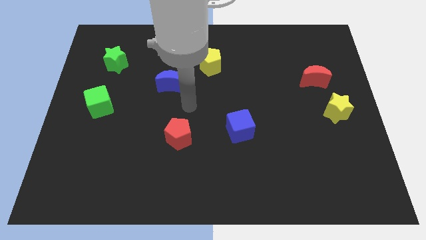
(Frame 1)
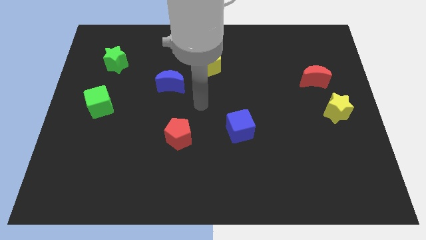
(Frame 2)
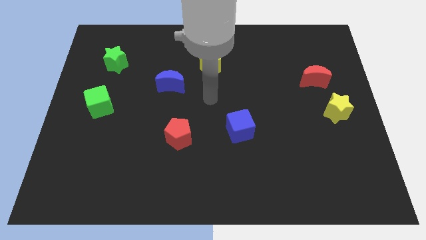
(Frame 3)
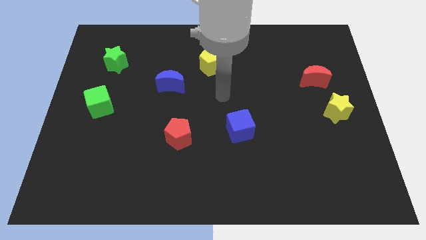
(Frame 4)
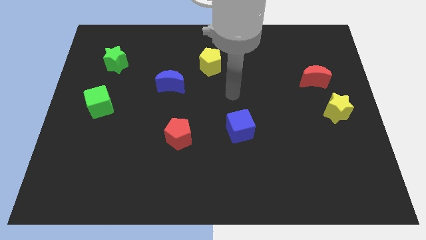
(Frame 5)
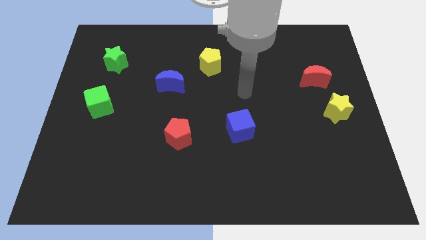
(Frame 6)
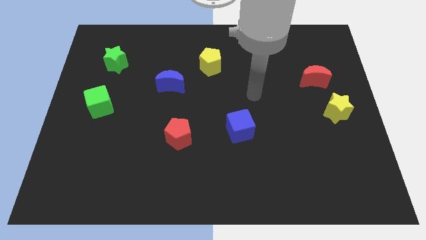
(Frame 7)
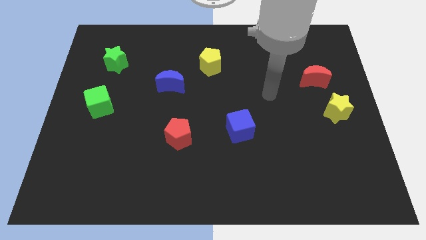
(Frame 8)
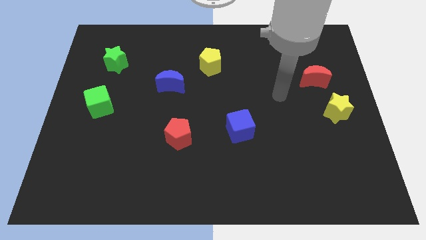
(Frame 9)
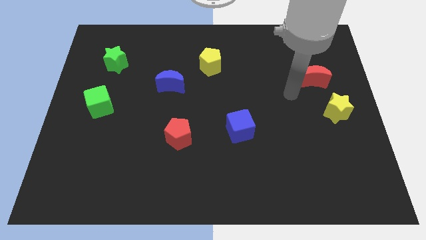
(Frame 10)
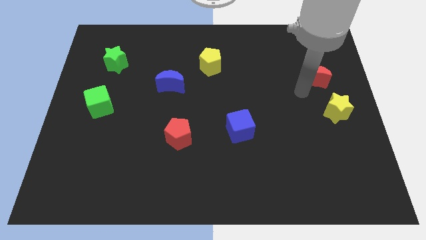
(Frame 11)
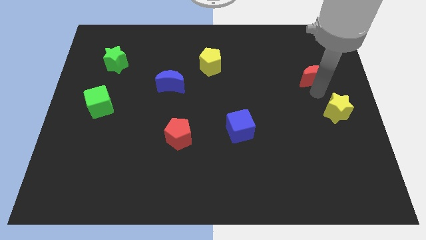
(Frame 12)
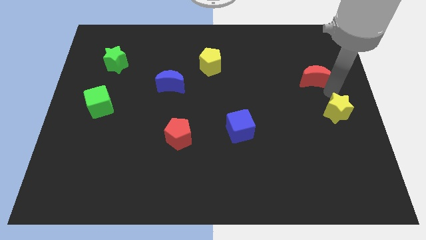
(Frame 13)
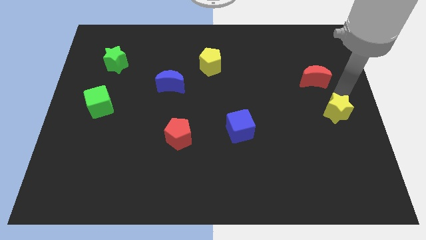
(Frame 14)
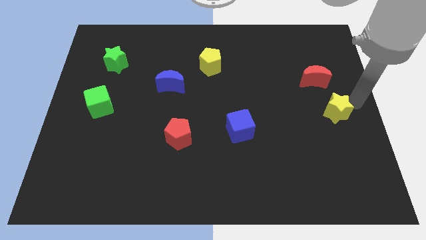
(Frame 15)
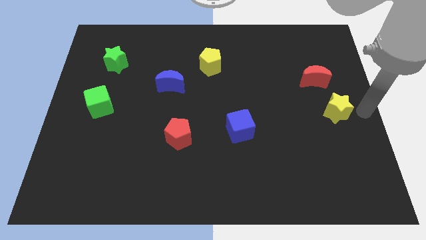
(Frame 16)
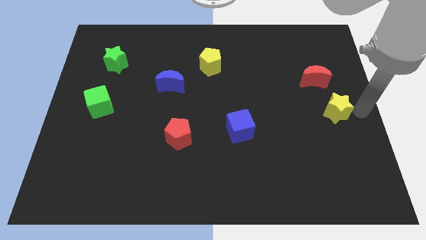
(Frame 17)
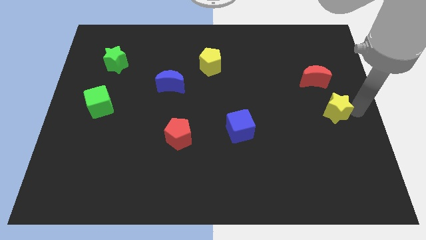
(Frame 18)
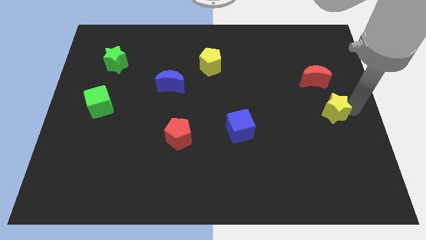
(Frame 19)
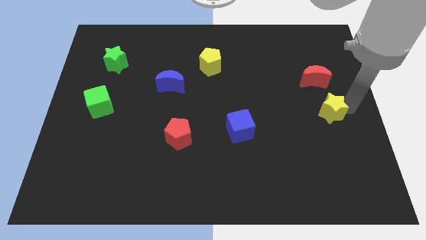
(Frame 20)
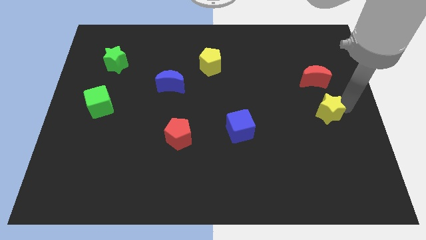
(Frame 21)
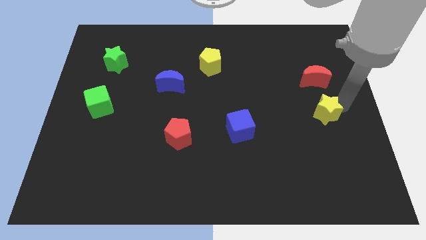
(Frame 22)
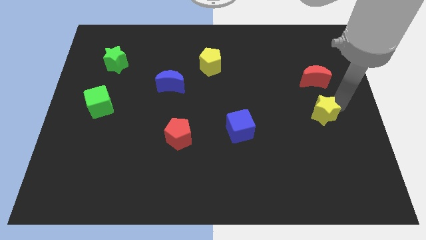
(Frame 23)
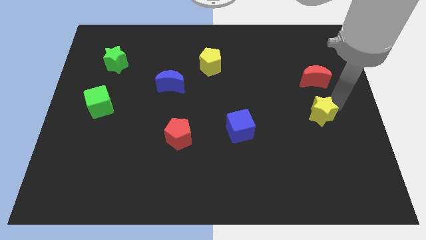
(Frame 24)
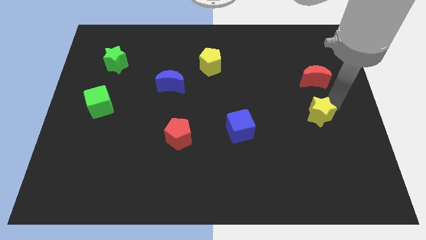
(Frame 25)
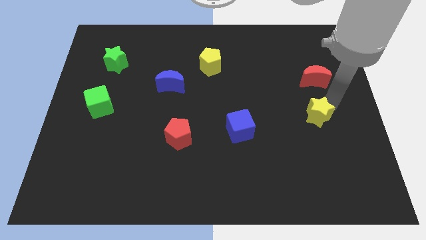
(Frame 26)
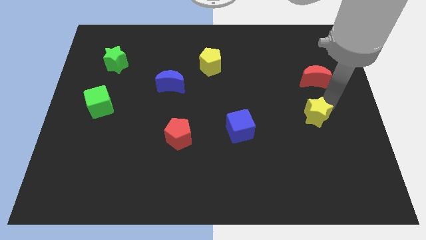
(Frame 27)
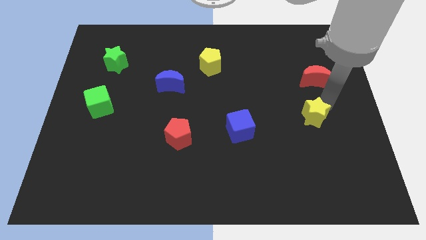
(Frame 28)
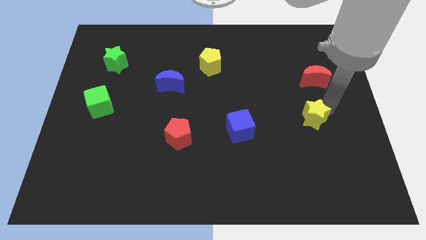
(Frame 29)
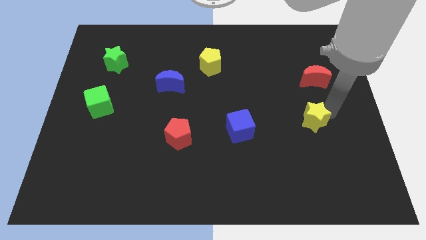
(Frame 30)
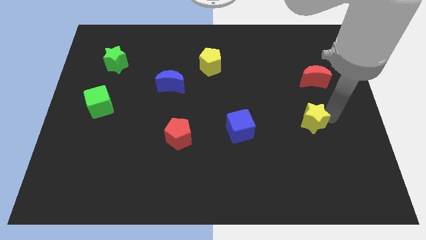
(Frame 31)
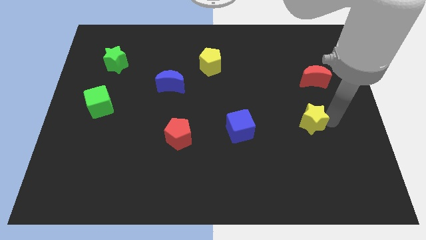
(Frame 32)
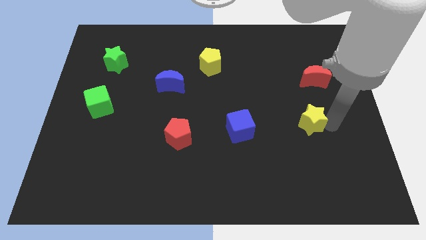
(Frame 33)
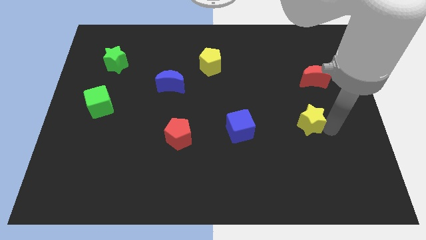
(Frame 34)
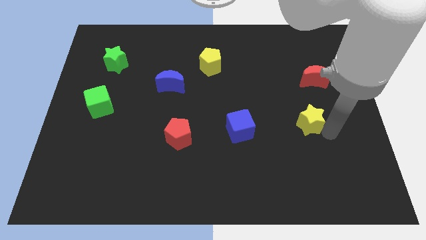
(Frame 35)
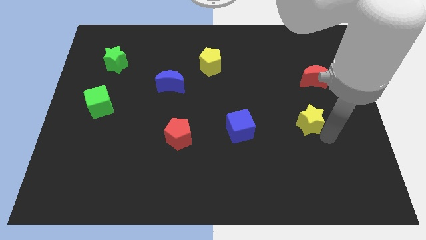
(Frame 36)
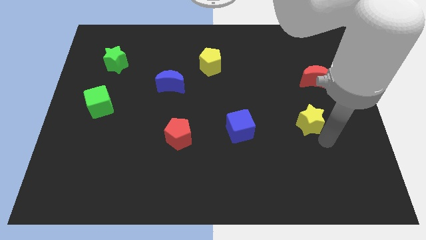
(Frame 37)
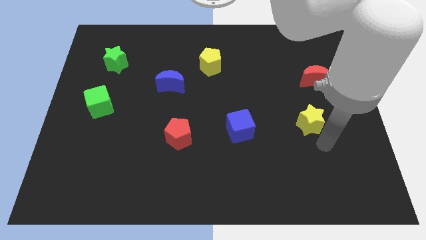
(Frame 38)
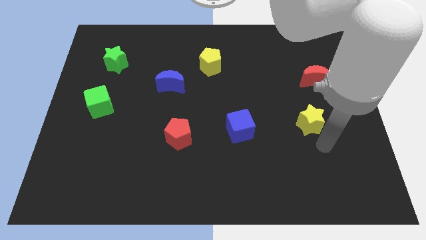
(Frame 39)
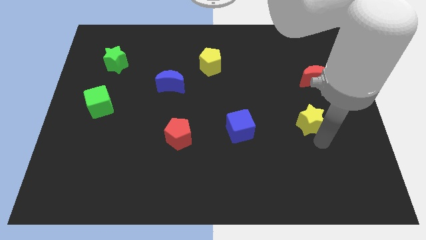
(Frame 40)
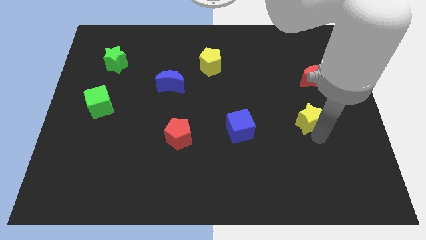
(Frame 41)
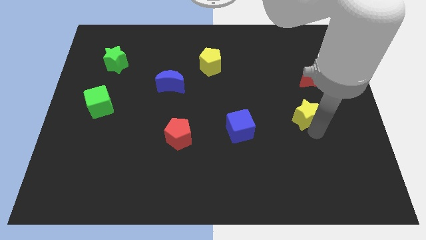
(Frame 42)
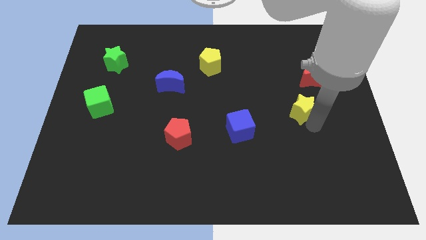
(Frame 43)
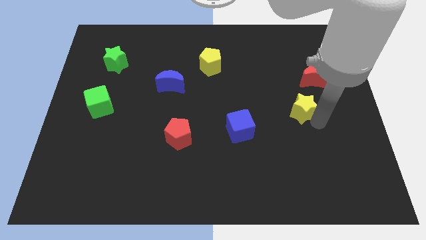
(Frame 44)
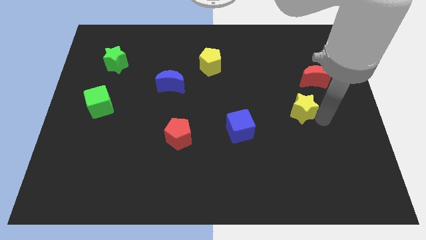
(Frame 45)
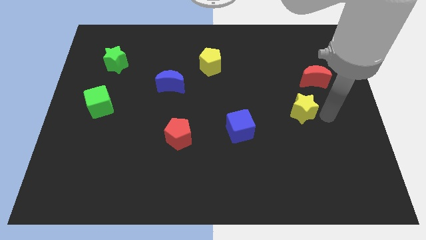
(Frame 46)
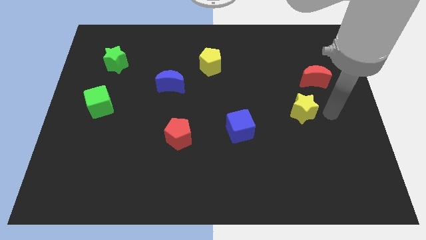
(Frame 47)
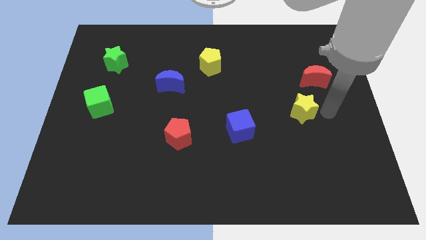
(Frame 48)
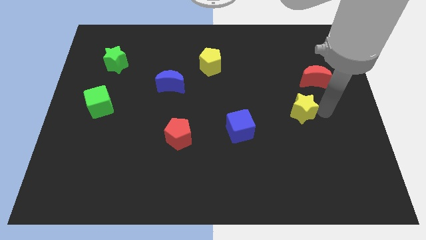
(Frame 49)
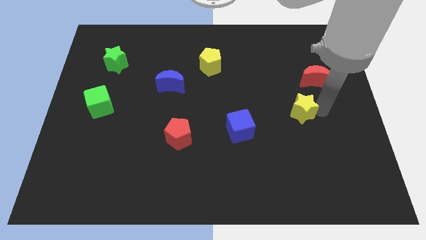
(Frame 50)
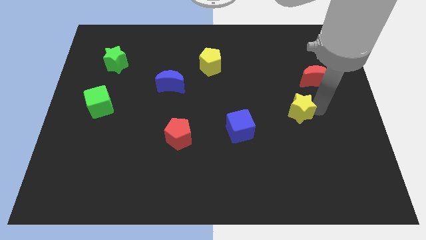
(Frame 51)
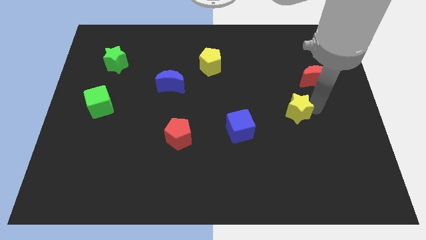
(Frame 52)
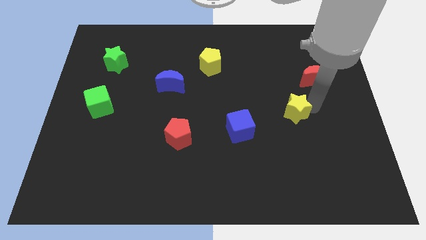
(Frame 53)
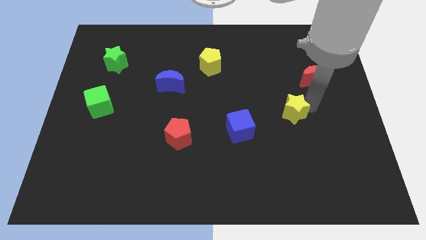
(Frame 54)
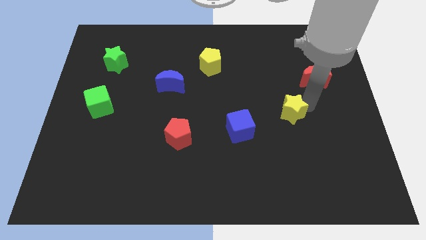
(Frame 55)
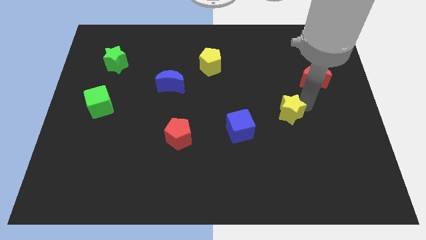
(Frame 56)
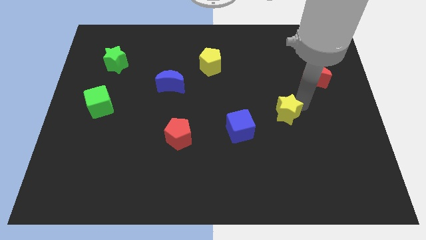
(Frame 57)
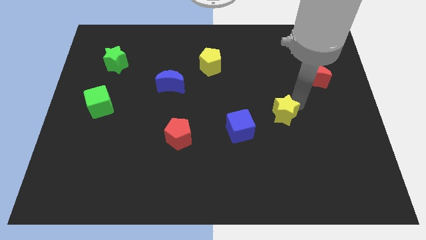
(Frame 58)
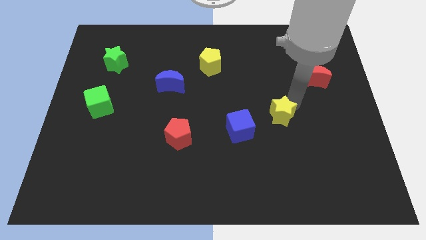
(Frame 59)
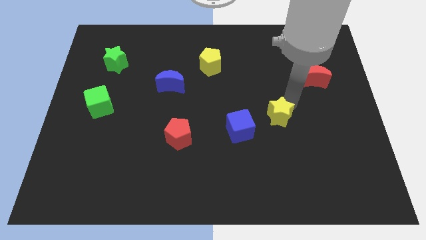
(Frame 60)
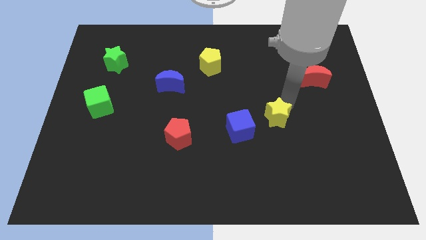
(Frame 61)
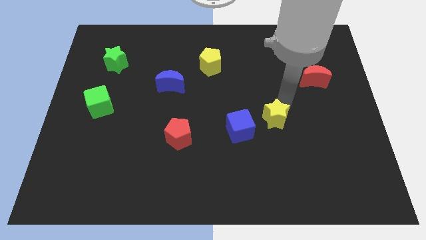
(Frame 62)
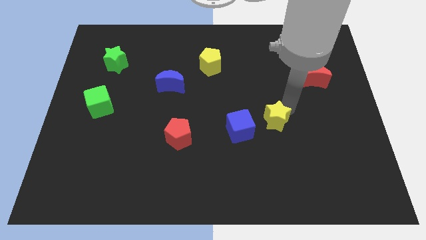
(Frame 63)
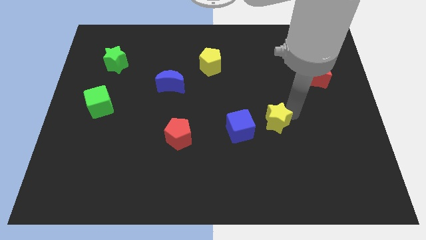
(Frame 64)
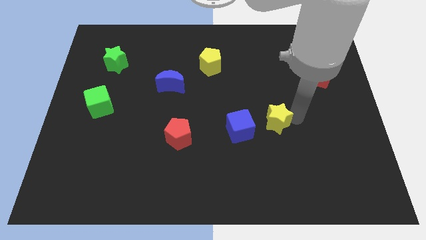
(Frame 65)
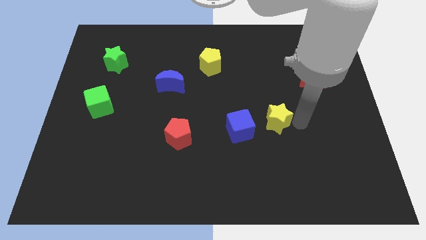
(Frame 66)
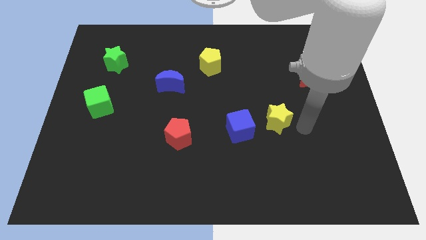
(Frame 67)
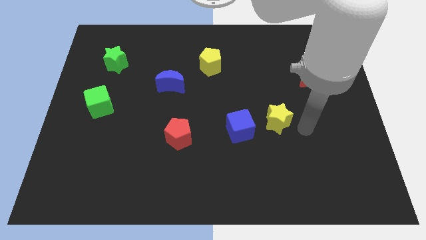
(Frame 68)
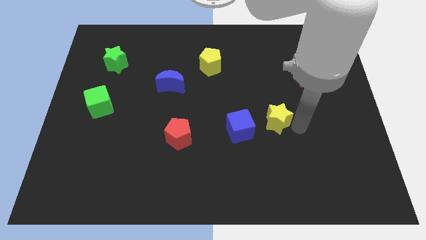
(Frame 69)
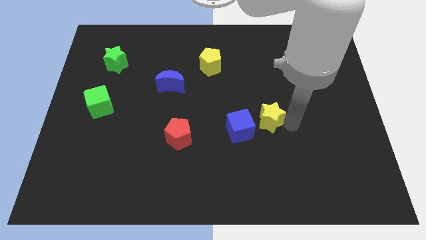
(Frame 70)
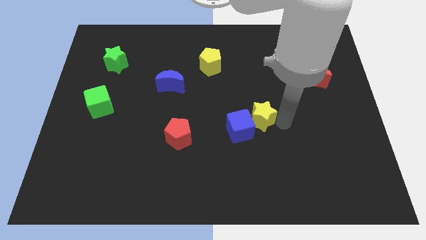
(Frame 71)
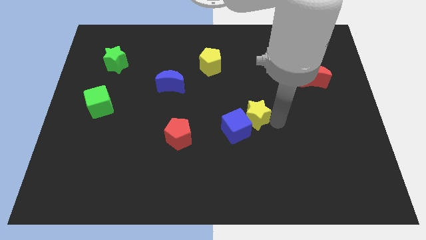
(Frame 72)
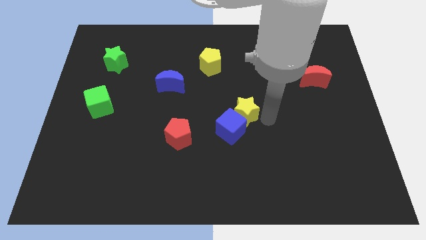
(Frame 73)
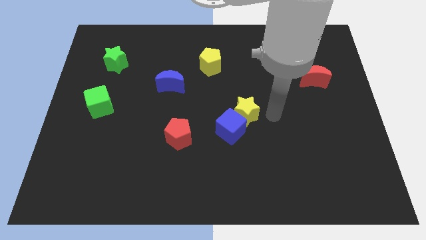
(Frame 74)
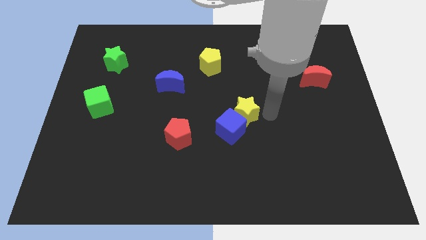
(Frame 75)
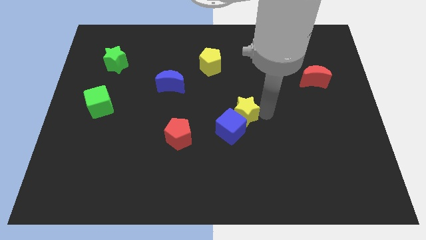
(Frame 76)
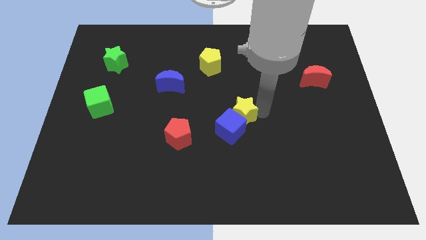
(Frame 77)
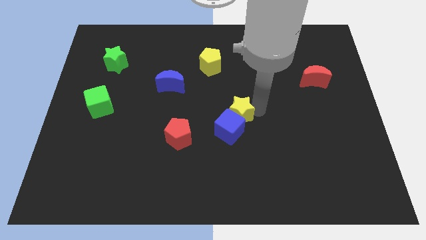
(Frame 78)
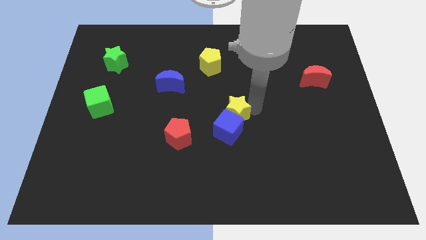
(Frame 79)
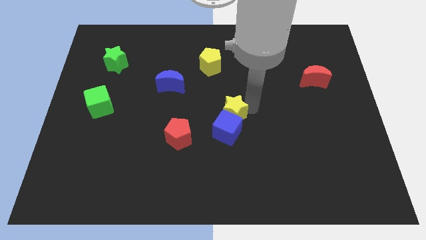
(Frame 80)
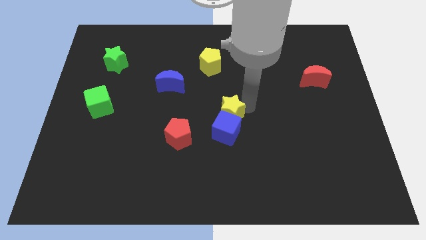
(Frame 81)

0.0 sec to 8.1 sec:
push the yellow star to the top left of the blue cube
